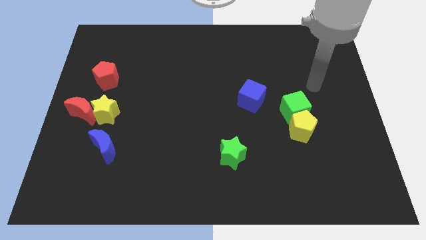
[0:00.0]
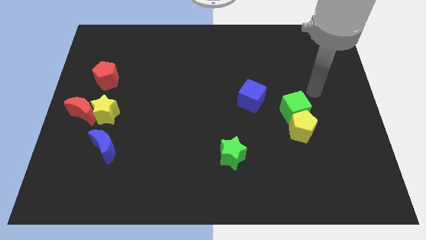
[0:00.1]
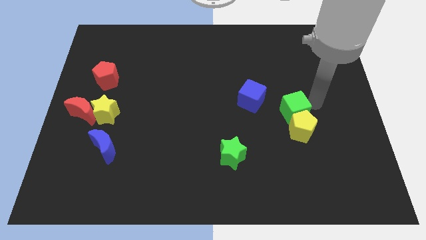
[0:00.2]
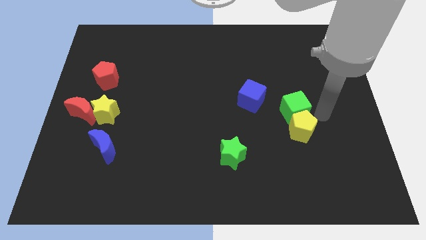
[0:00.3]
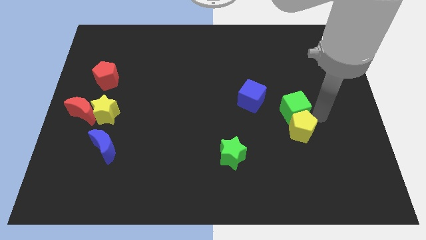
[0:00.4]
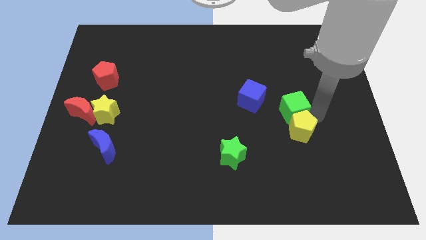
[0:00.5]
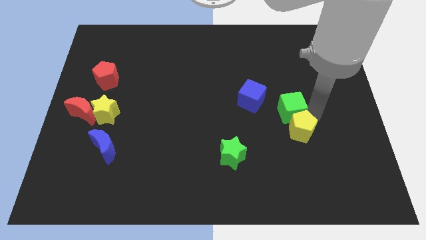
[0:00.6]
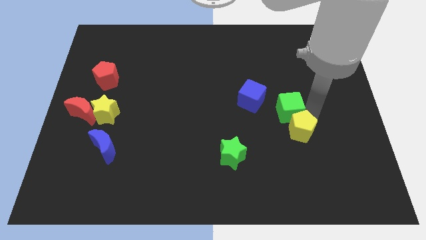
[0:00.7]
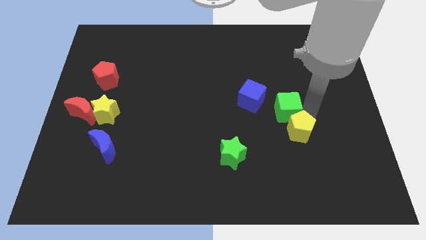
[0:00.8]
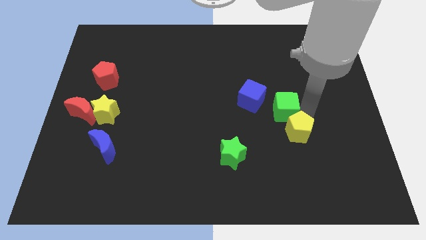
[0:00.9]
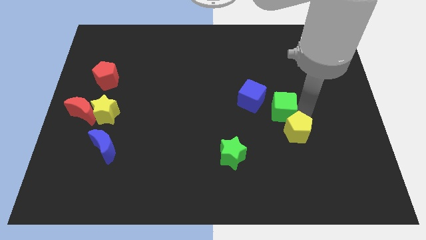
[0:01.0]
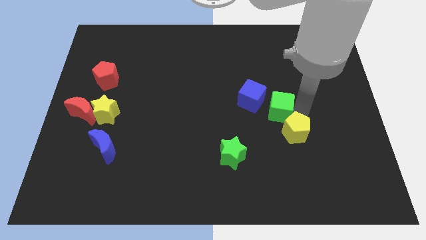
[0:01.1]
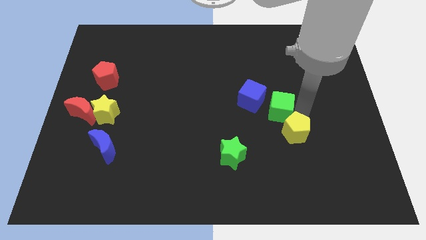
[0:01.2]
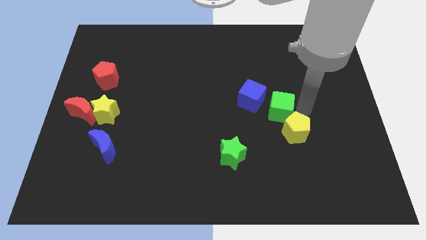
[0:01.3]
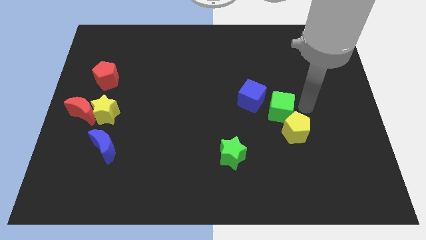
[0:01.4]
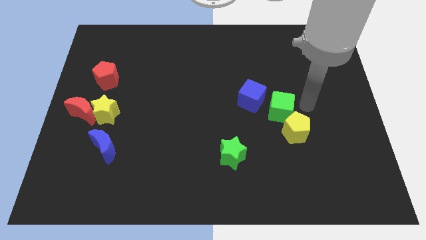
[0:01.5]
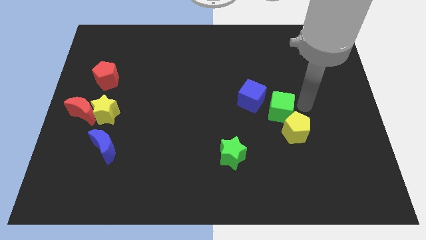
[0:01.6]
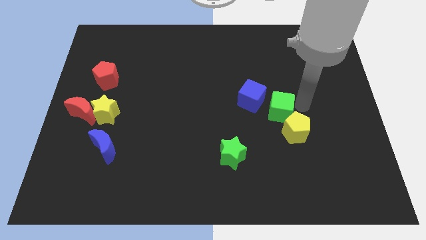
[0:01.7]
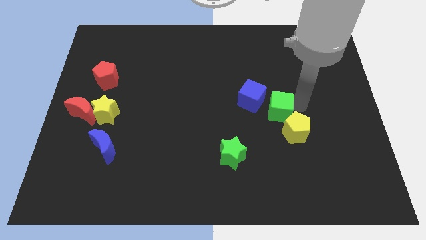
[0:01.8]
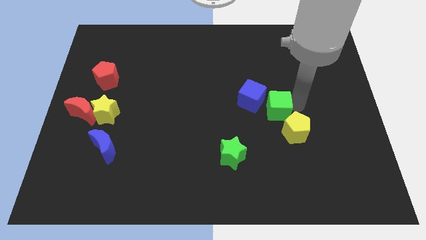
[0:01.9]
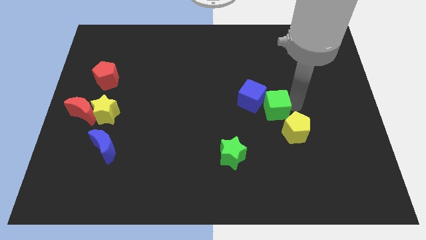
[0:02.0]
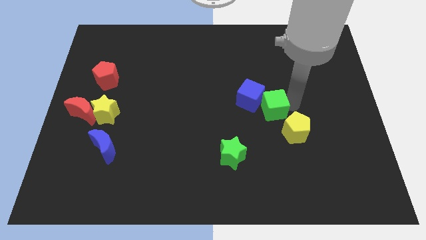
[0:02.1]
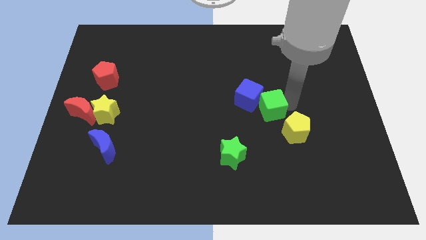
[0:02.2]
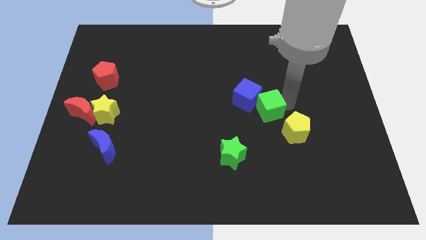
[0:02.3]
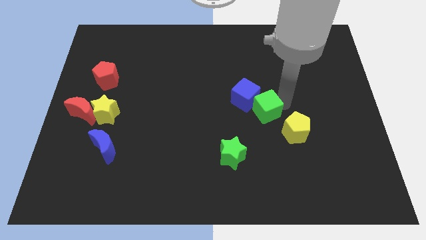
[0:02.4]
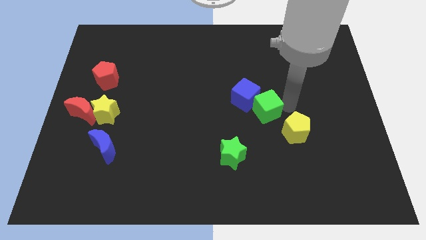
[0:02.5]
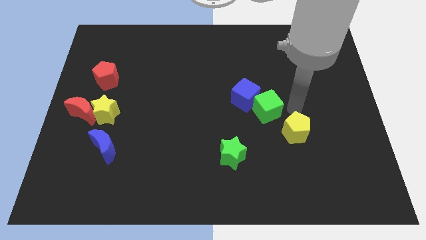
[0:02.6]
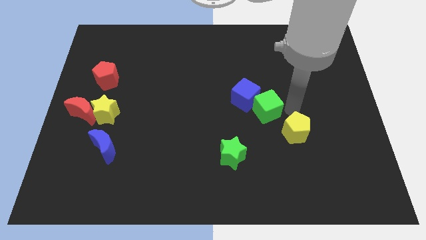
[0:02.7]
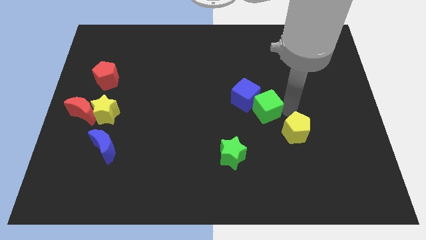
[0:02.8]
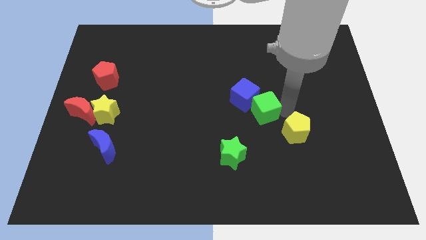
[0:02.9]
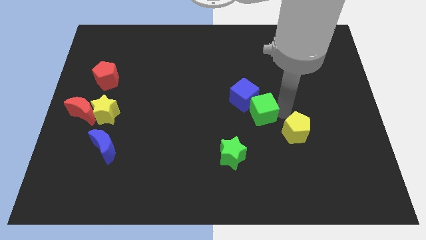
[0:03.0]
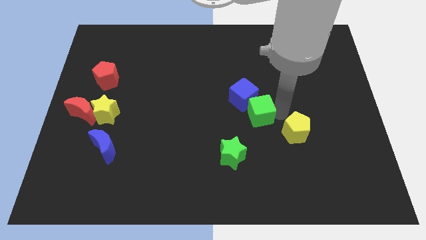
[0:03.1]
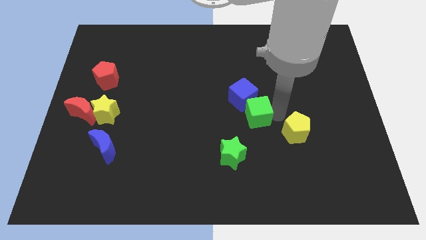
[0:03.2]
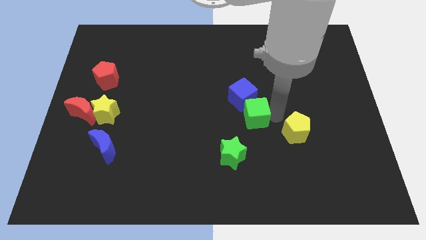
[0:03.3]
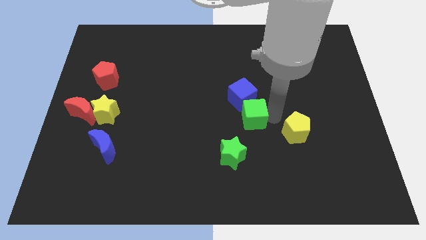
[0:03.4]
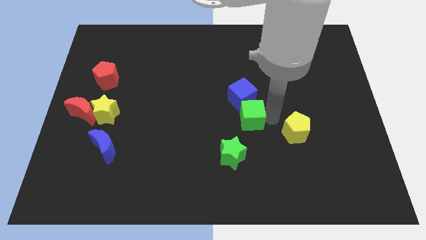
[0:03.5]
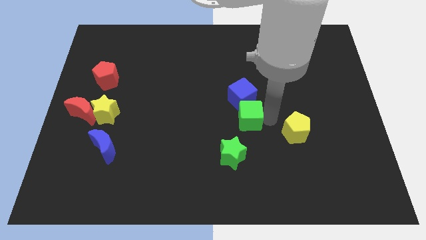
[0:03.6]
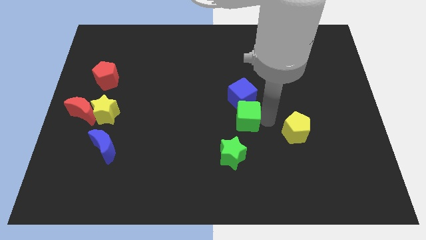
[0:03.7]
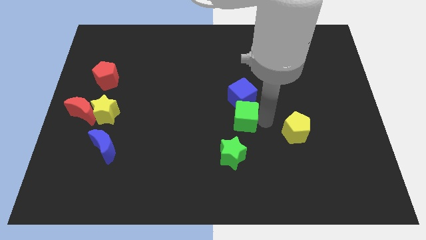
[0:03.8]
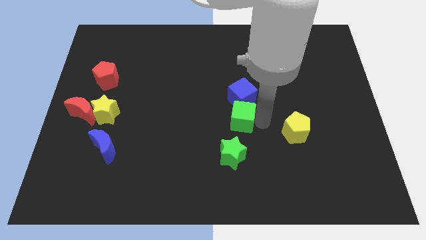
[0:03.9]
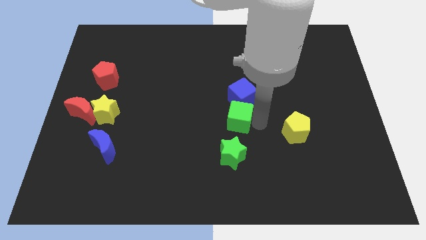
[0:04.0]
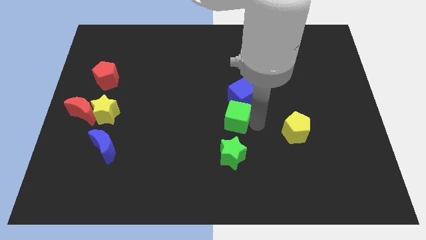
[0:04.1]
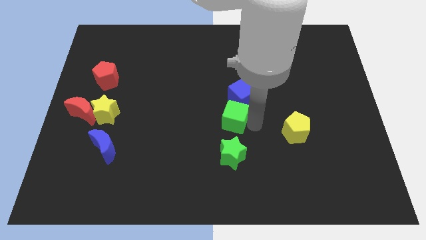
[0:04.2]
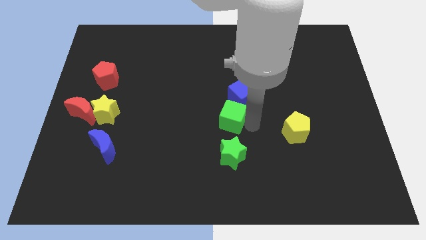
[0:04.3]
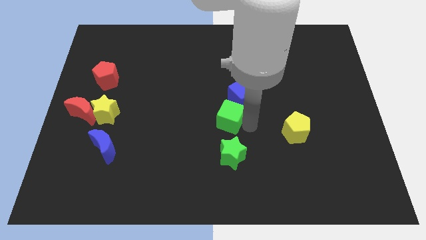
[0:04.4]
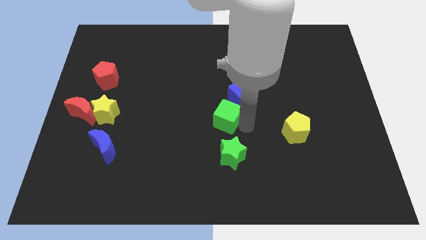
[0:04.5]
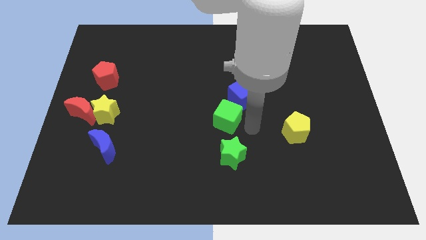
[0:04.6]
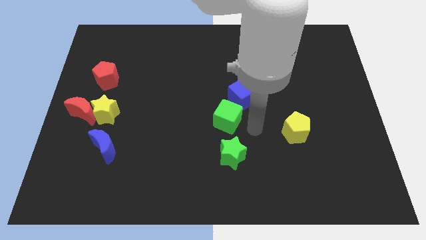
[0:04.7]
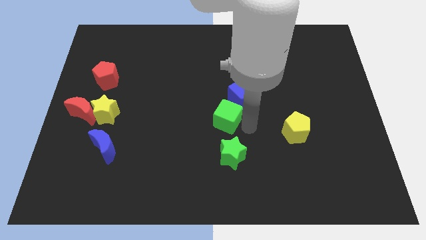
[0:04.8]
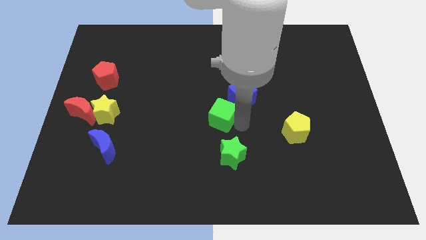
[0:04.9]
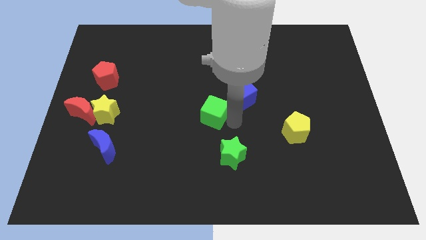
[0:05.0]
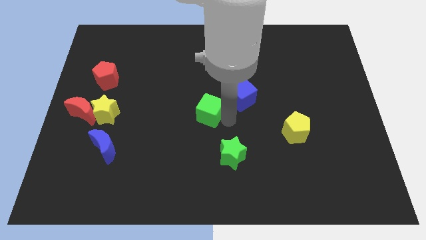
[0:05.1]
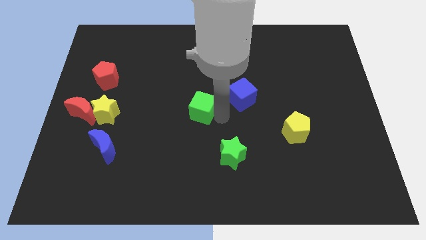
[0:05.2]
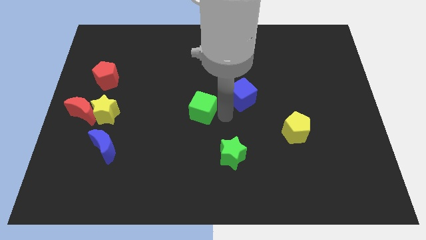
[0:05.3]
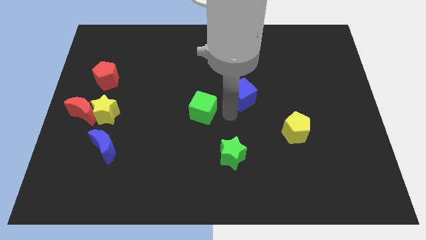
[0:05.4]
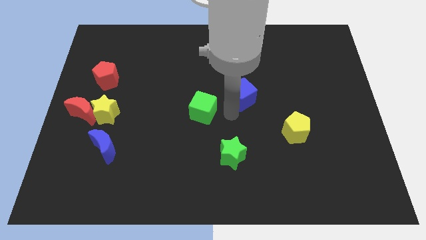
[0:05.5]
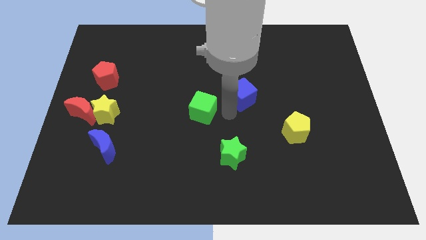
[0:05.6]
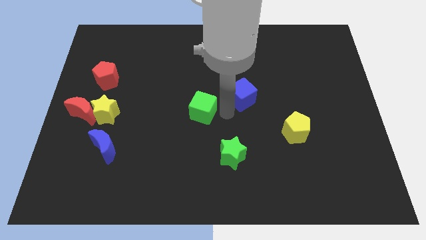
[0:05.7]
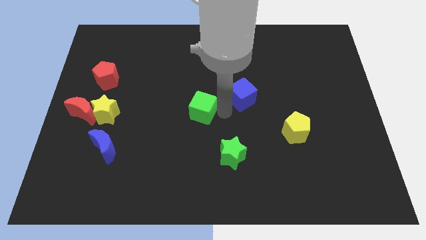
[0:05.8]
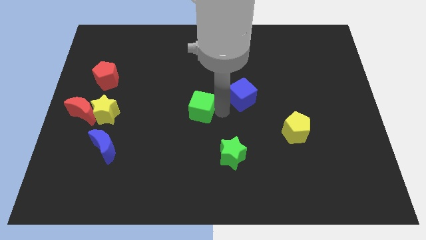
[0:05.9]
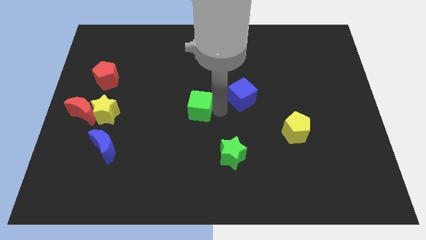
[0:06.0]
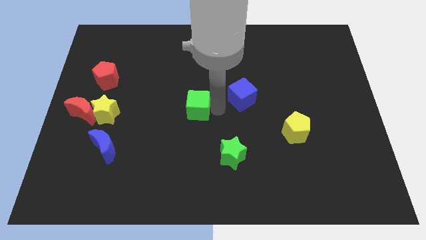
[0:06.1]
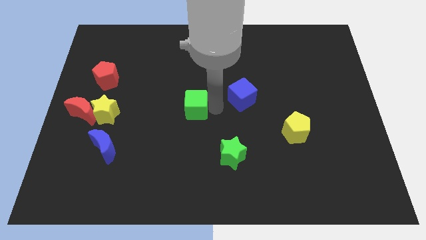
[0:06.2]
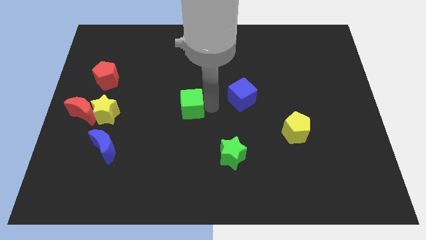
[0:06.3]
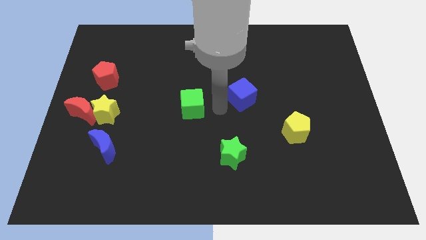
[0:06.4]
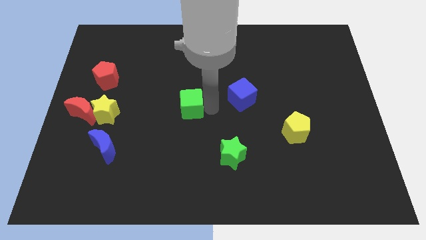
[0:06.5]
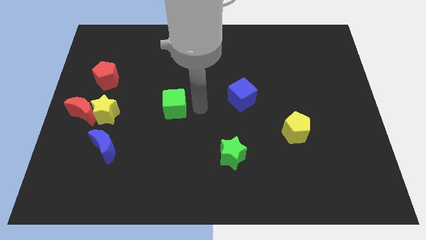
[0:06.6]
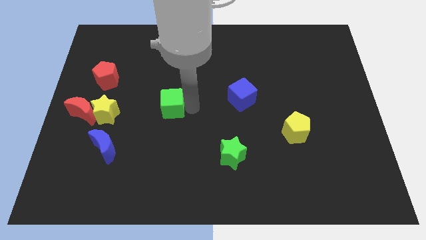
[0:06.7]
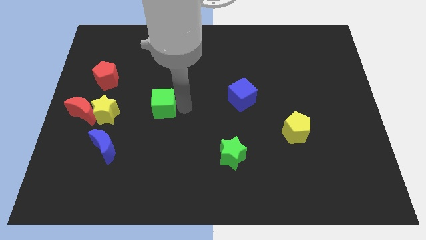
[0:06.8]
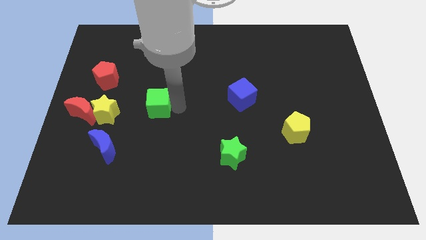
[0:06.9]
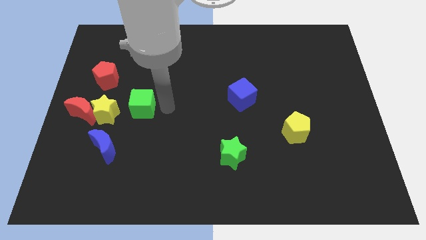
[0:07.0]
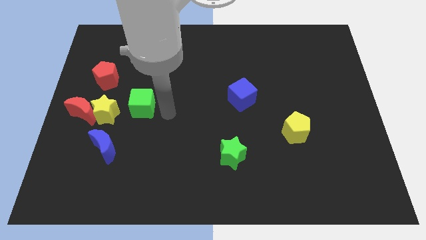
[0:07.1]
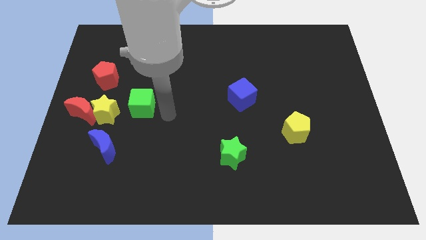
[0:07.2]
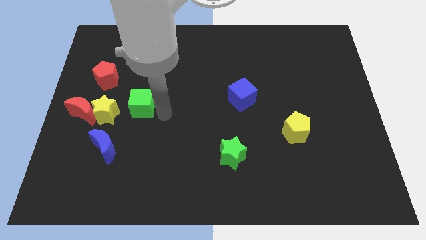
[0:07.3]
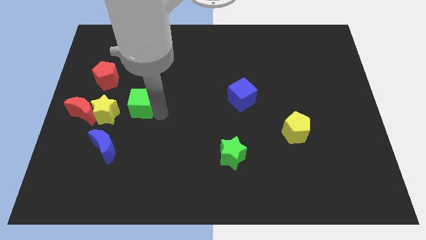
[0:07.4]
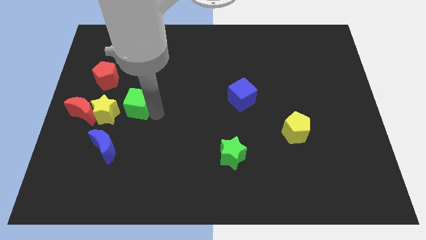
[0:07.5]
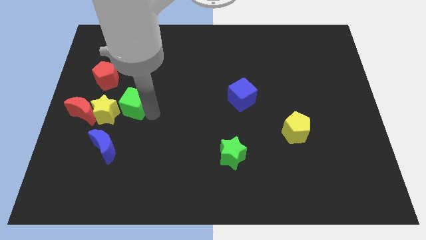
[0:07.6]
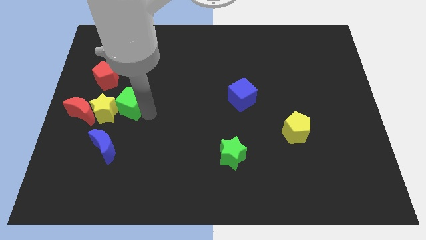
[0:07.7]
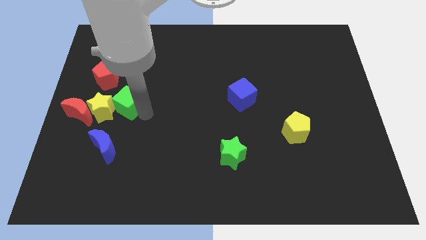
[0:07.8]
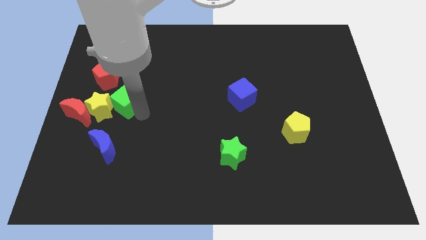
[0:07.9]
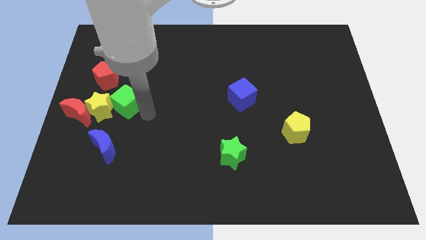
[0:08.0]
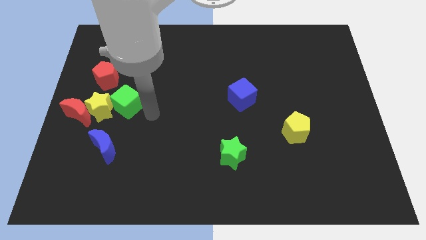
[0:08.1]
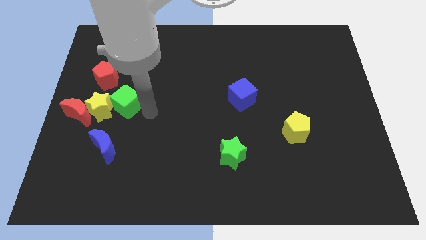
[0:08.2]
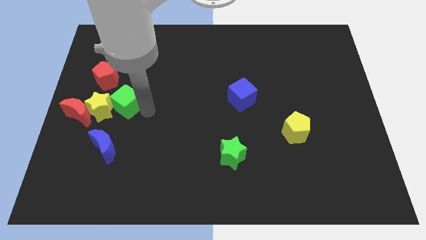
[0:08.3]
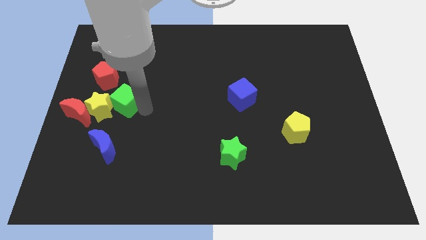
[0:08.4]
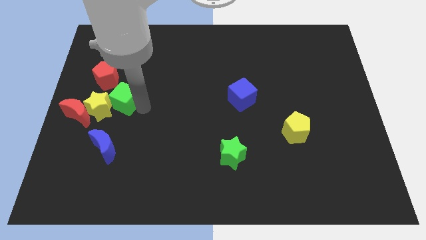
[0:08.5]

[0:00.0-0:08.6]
put the green cube to the top right side of the red moon
